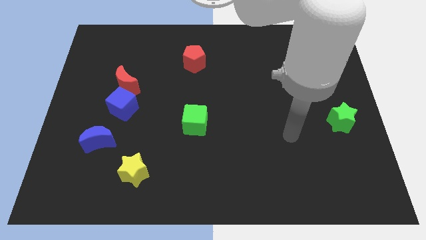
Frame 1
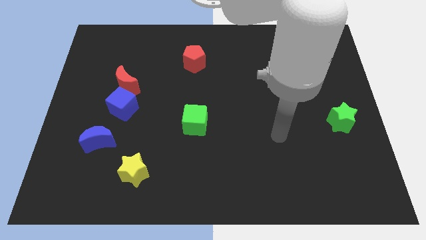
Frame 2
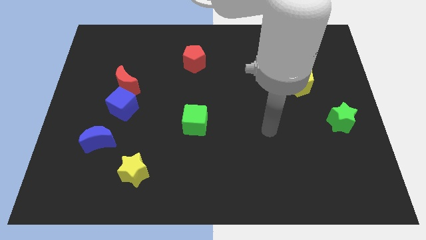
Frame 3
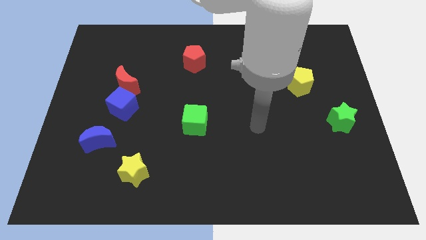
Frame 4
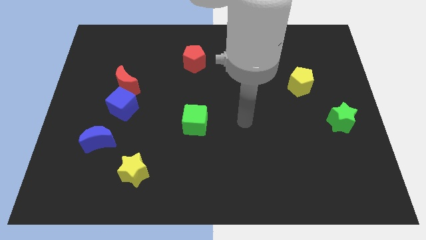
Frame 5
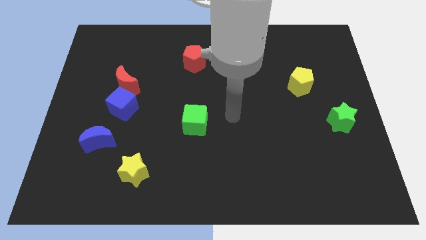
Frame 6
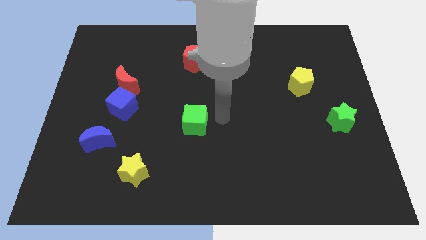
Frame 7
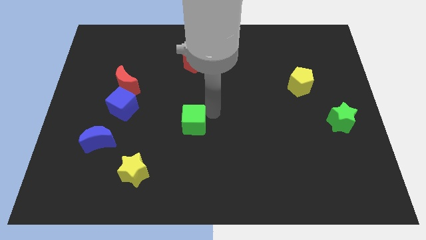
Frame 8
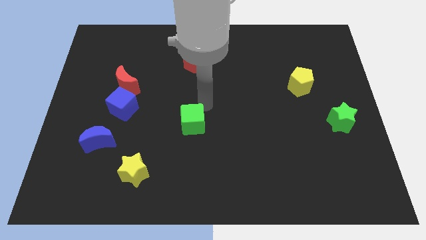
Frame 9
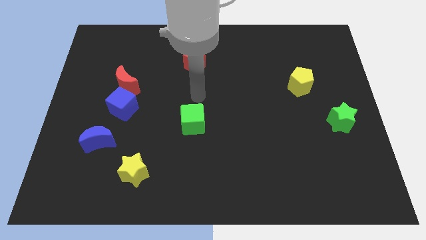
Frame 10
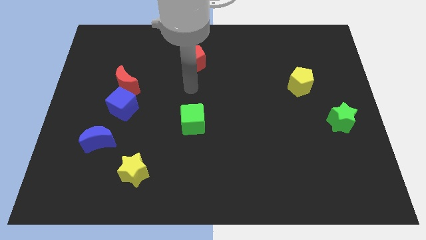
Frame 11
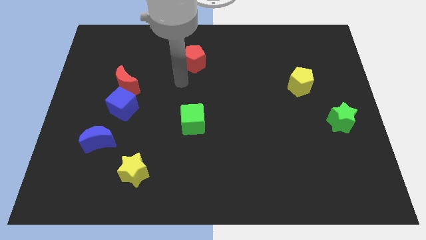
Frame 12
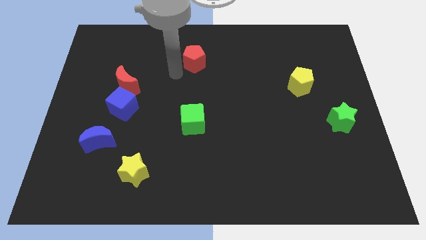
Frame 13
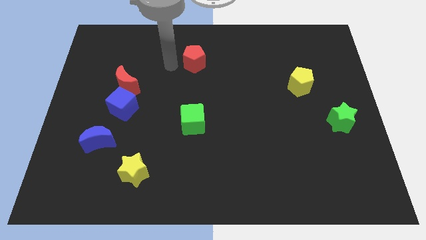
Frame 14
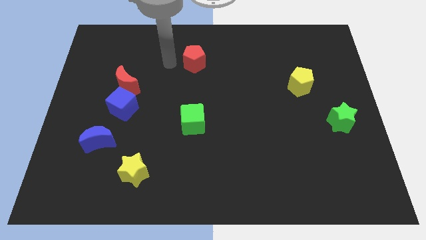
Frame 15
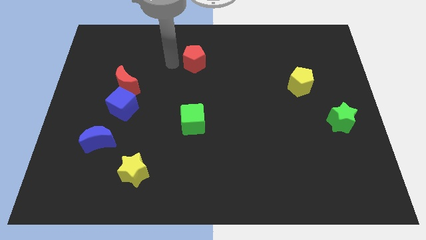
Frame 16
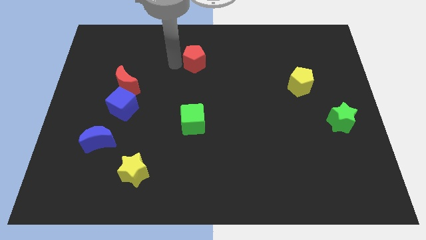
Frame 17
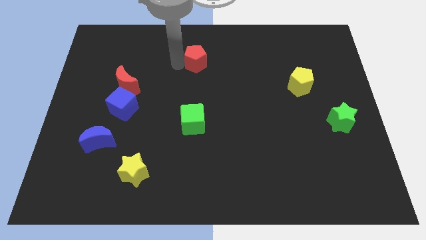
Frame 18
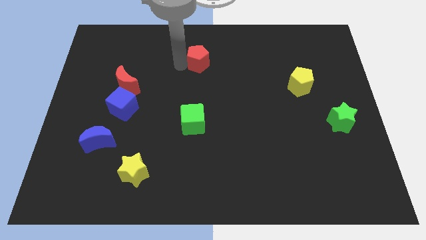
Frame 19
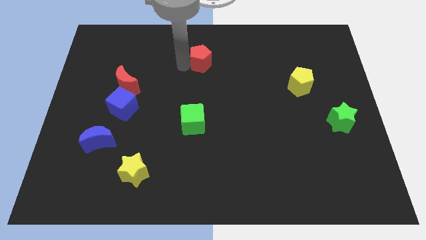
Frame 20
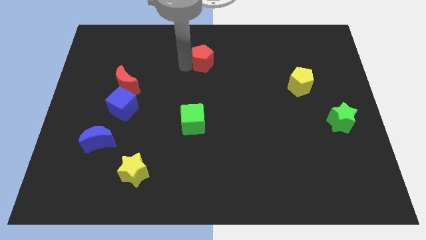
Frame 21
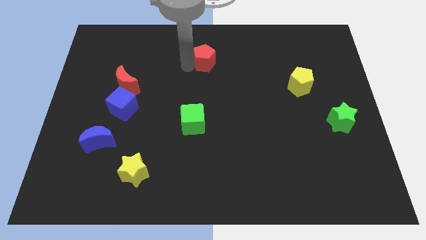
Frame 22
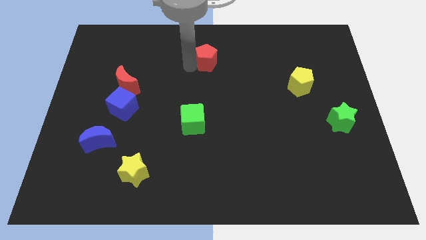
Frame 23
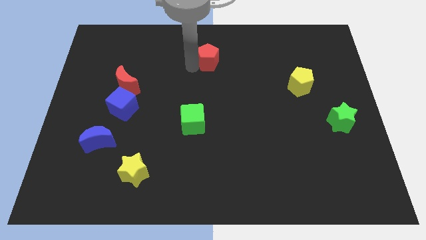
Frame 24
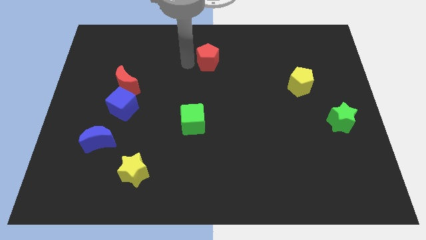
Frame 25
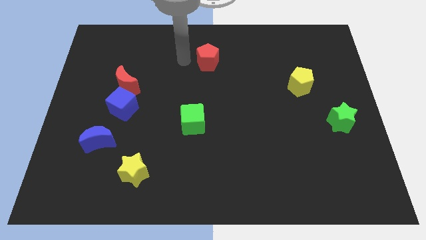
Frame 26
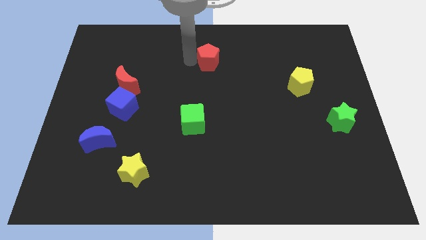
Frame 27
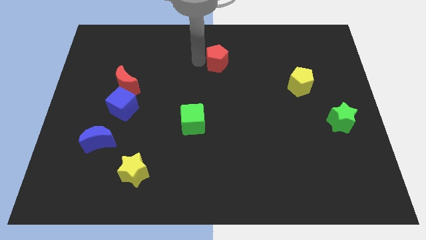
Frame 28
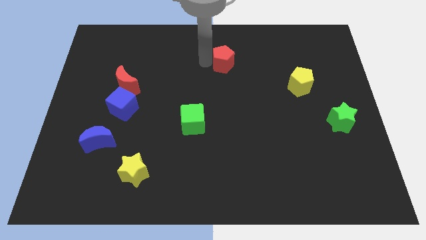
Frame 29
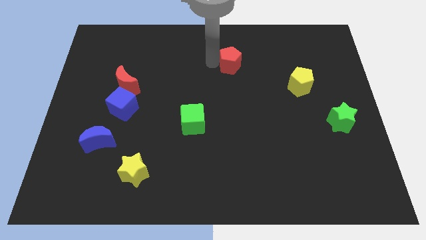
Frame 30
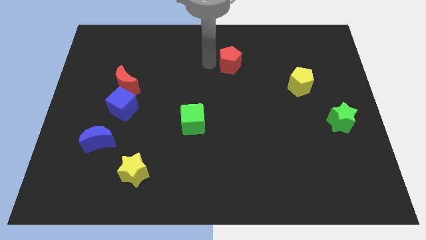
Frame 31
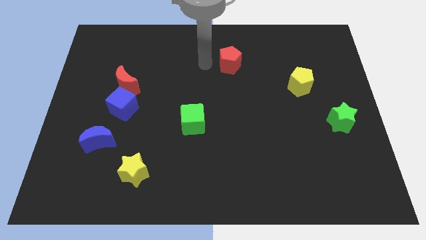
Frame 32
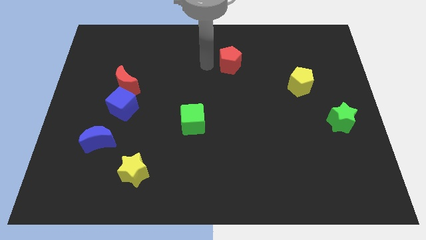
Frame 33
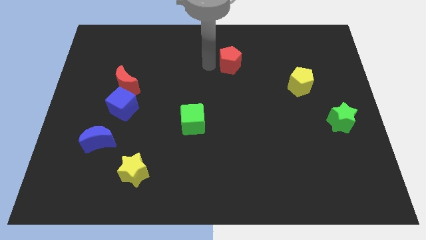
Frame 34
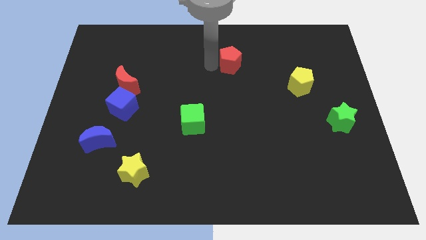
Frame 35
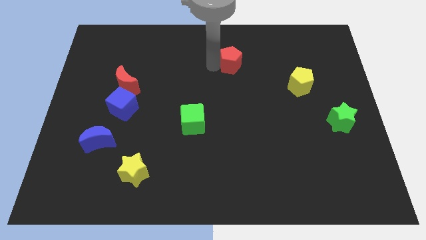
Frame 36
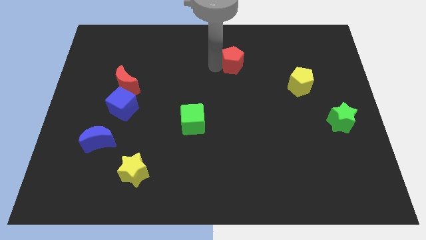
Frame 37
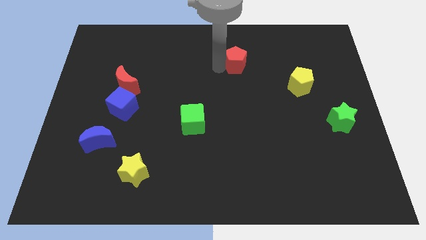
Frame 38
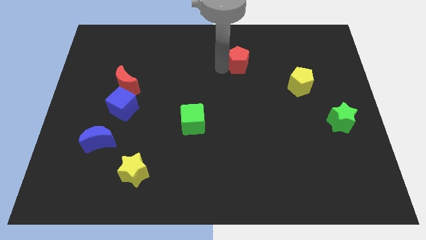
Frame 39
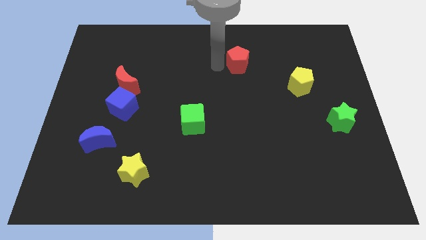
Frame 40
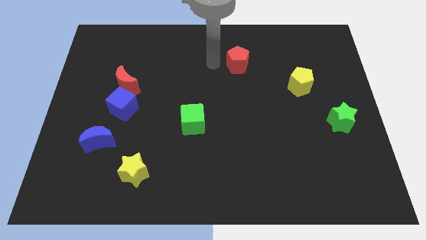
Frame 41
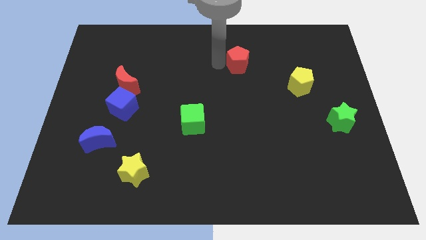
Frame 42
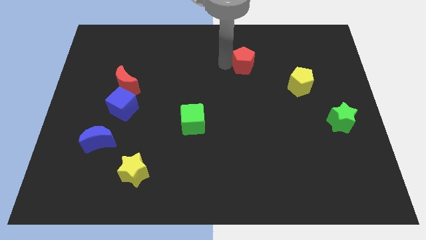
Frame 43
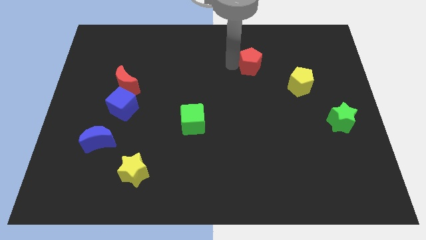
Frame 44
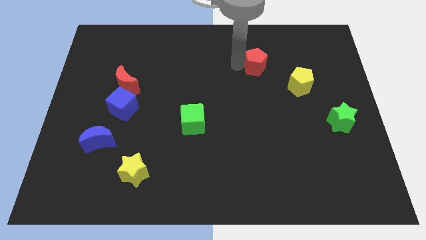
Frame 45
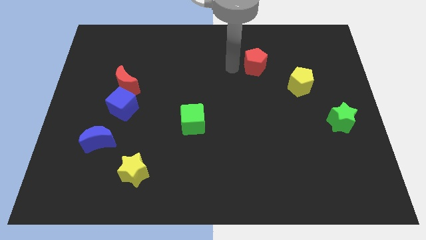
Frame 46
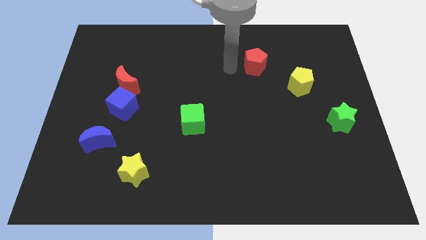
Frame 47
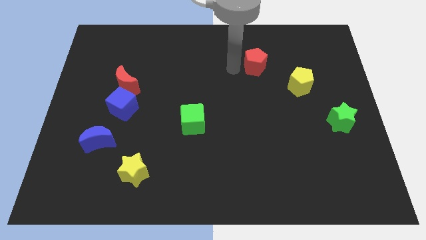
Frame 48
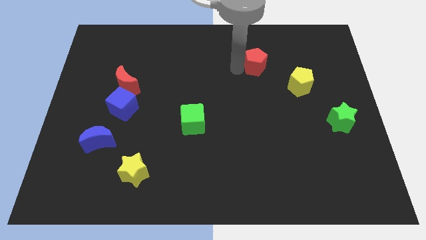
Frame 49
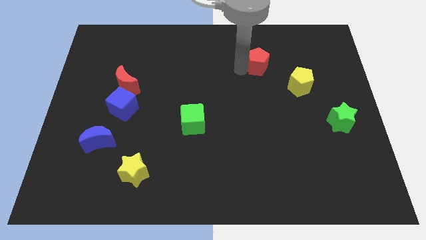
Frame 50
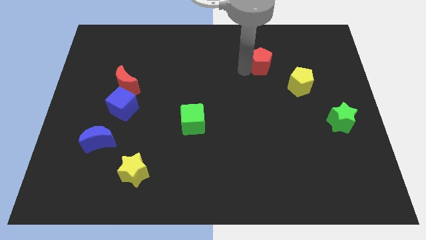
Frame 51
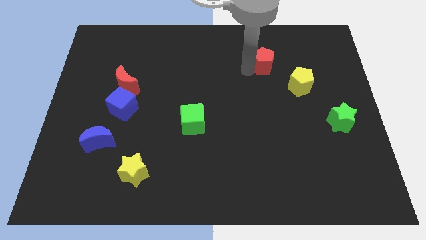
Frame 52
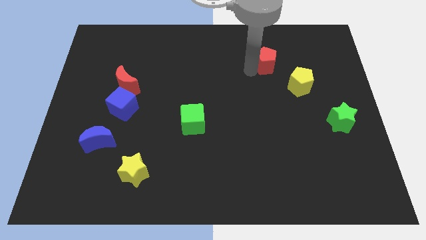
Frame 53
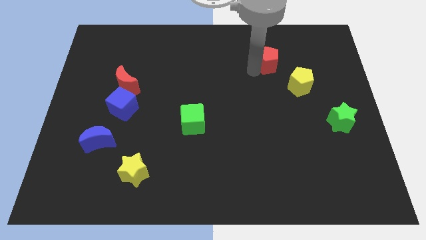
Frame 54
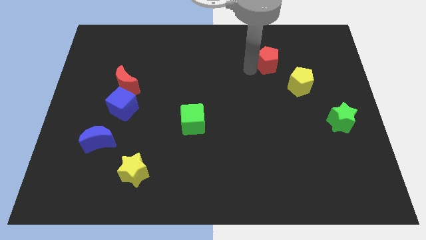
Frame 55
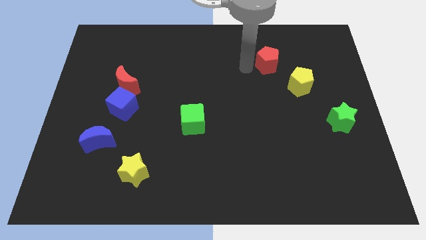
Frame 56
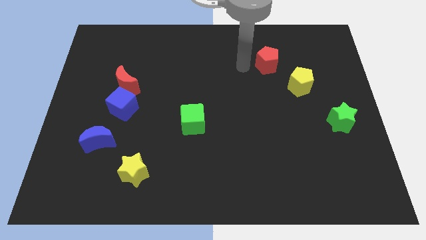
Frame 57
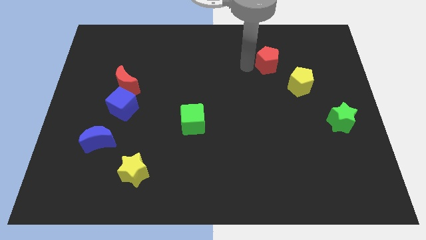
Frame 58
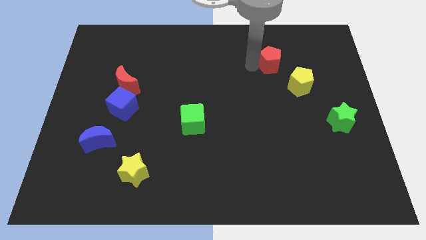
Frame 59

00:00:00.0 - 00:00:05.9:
move the red pentagon right

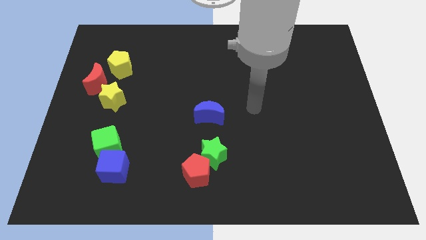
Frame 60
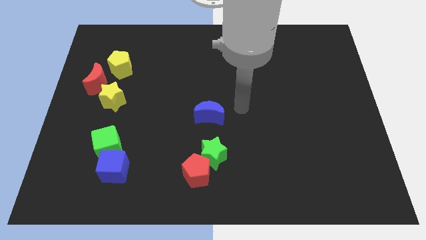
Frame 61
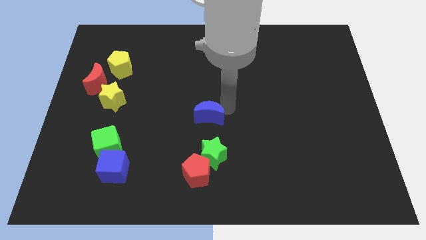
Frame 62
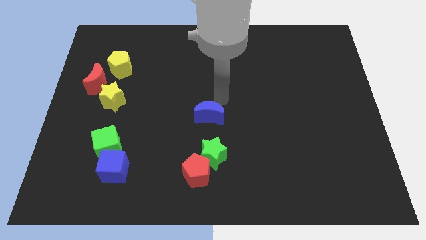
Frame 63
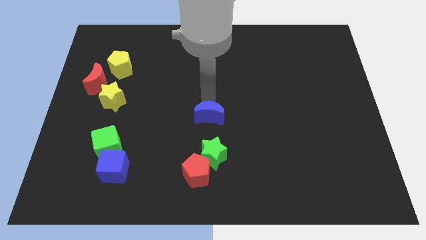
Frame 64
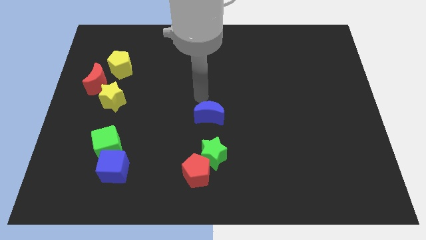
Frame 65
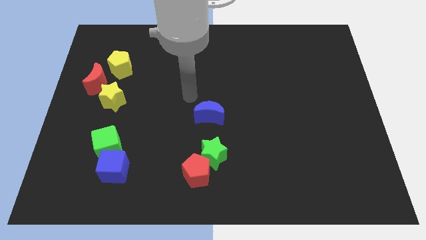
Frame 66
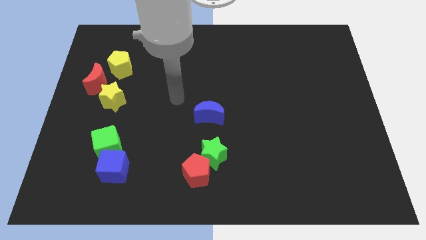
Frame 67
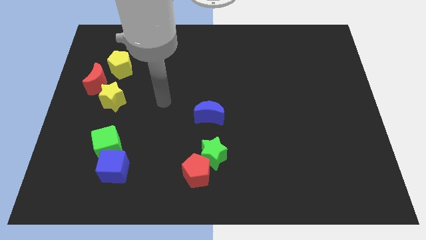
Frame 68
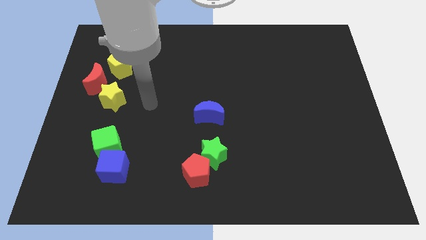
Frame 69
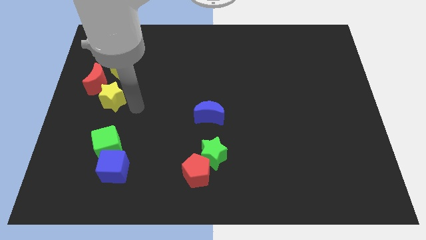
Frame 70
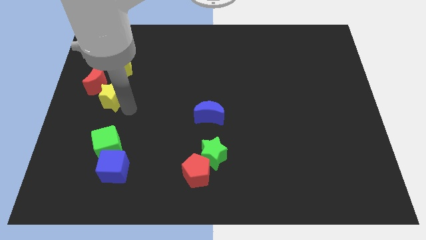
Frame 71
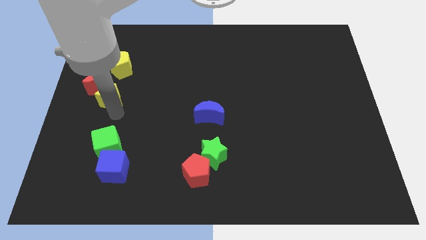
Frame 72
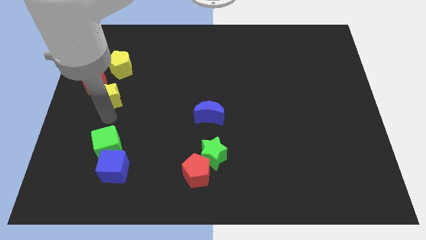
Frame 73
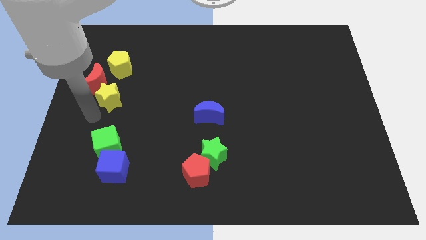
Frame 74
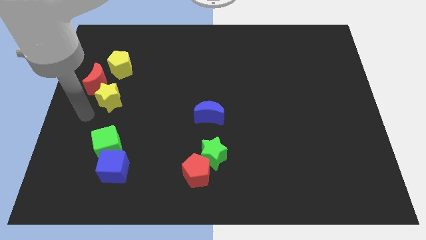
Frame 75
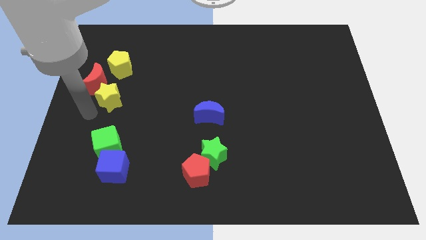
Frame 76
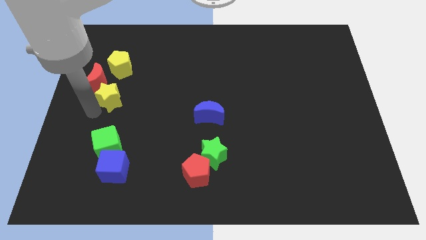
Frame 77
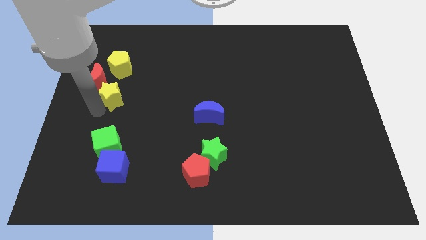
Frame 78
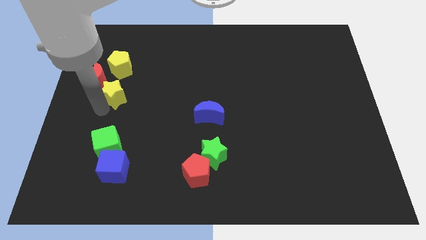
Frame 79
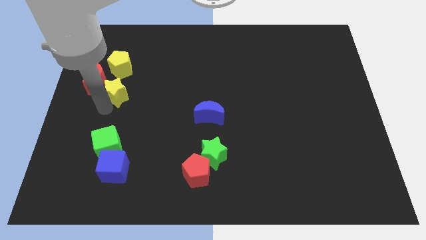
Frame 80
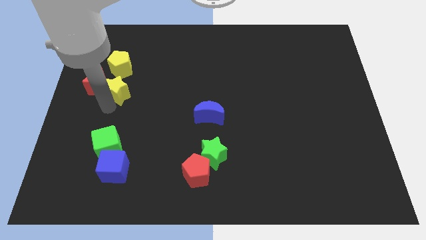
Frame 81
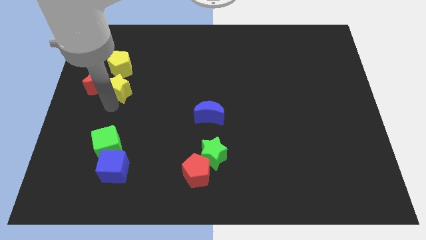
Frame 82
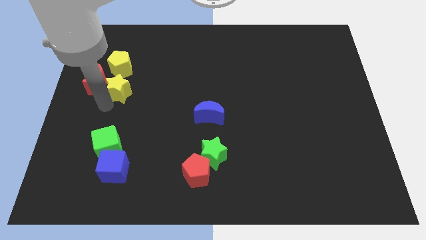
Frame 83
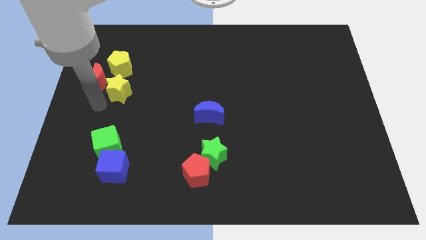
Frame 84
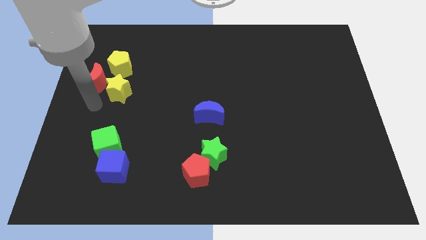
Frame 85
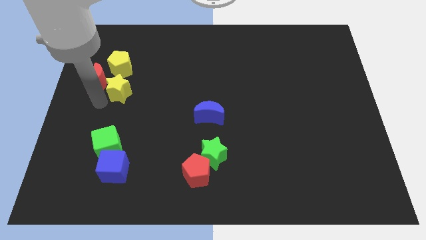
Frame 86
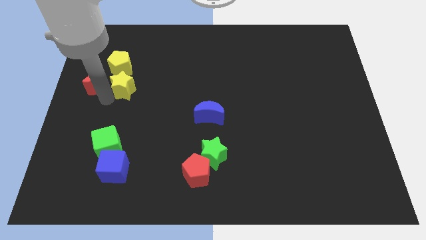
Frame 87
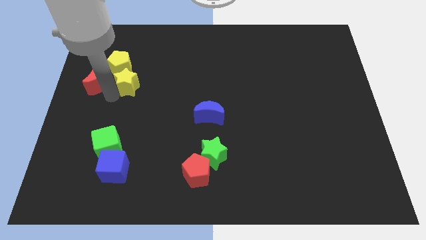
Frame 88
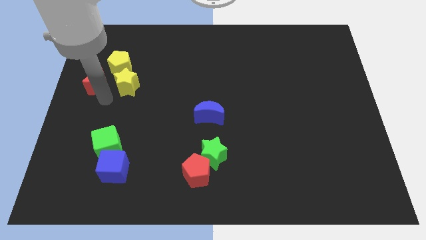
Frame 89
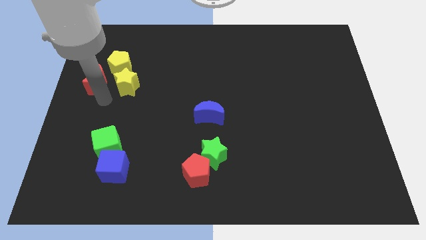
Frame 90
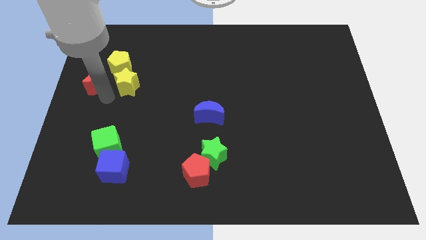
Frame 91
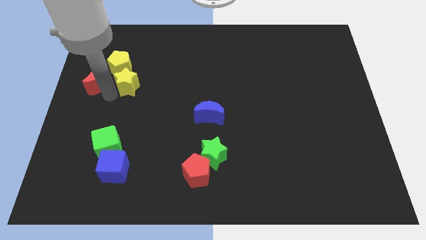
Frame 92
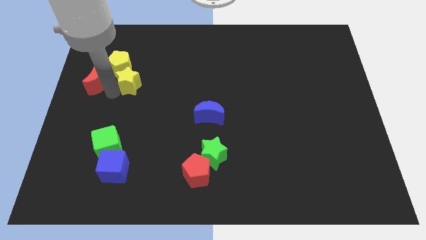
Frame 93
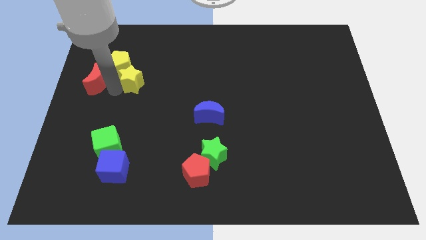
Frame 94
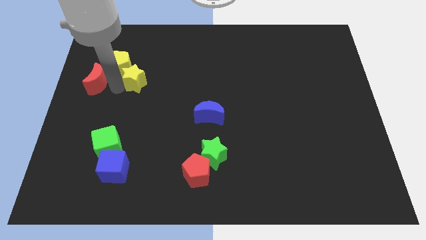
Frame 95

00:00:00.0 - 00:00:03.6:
slightly move the yellow star diagonally up and right
